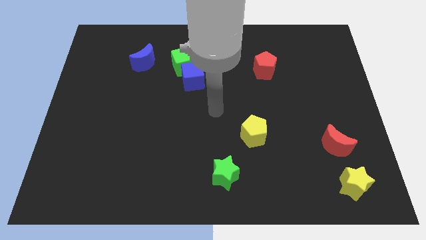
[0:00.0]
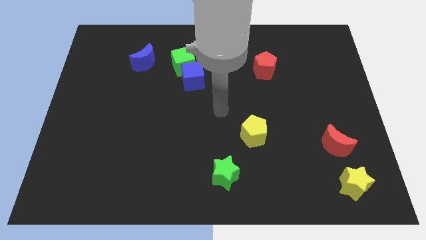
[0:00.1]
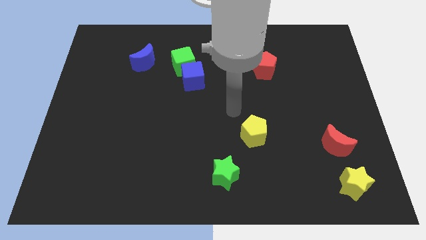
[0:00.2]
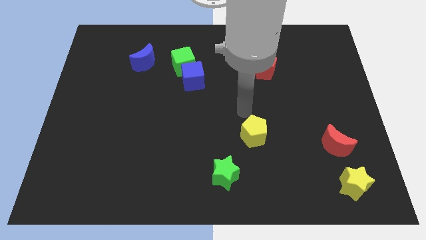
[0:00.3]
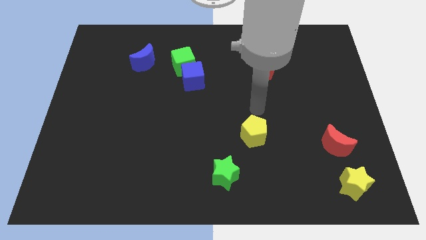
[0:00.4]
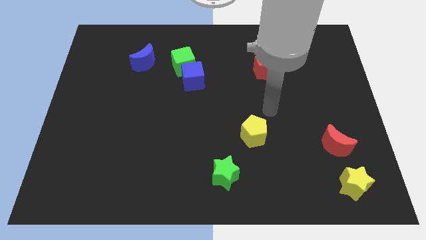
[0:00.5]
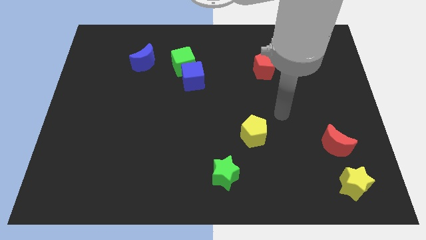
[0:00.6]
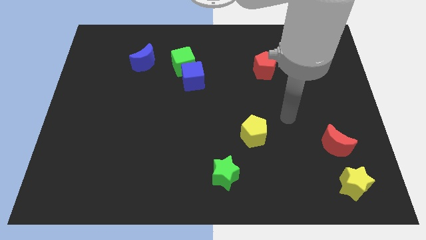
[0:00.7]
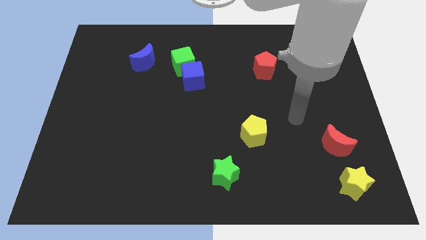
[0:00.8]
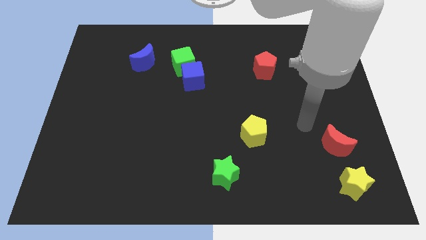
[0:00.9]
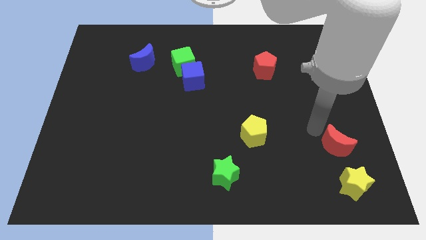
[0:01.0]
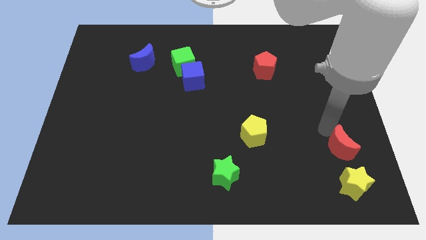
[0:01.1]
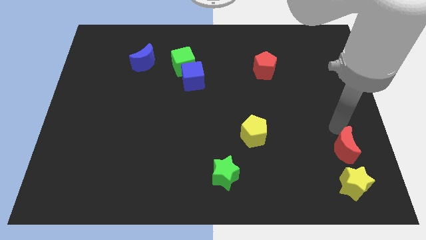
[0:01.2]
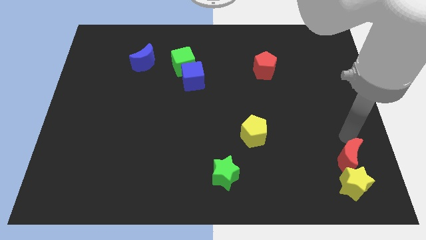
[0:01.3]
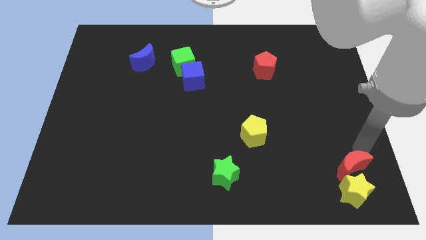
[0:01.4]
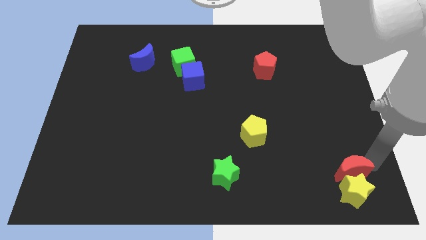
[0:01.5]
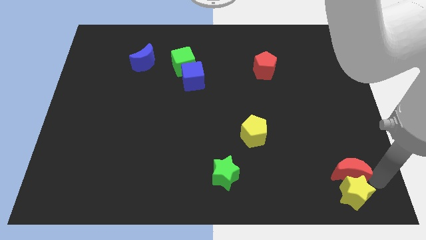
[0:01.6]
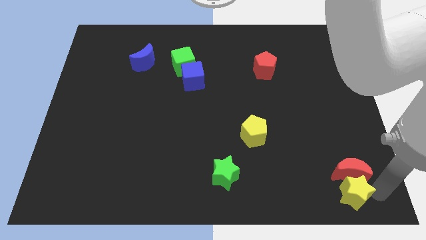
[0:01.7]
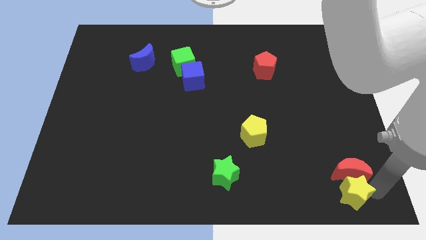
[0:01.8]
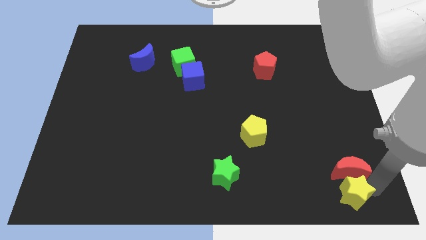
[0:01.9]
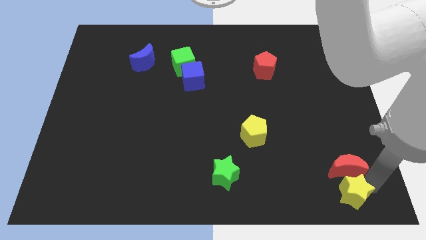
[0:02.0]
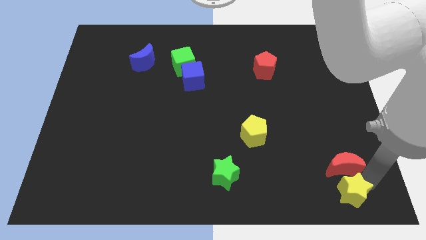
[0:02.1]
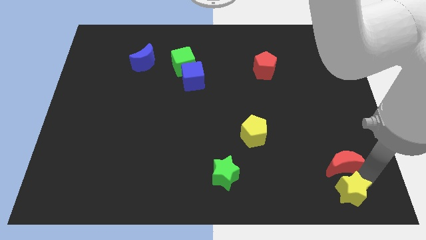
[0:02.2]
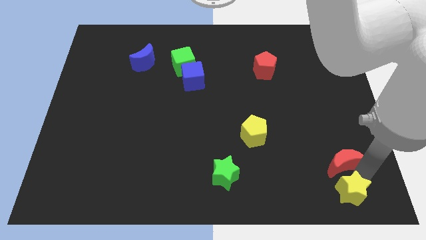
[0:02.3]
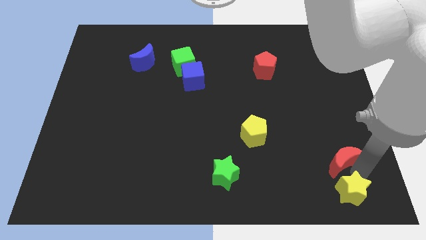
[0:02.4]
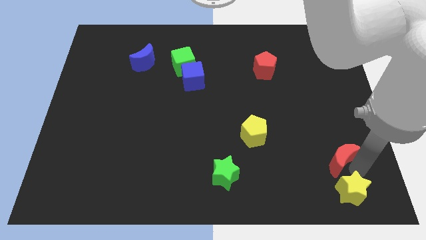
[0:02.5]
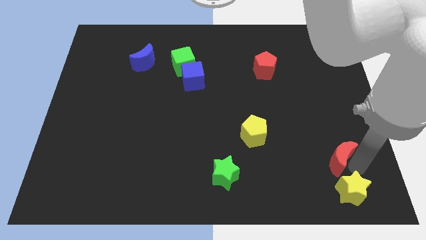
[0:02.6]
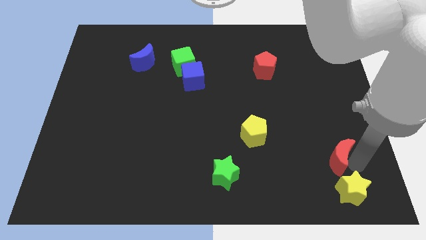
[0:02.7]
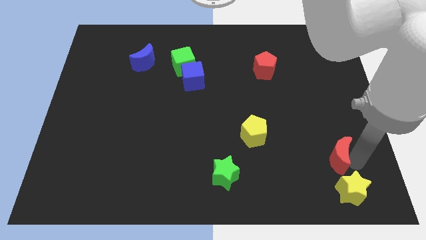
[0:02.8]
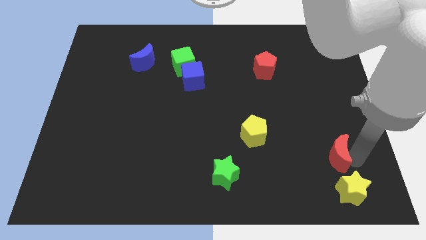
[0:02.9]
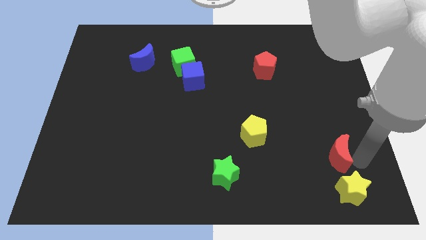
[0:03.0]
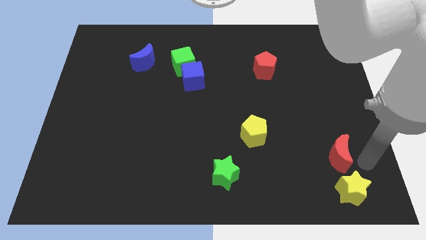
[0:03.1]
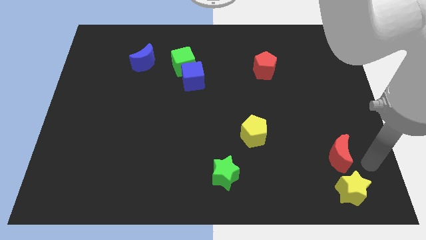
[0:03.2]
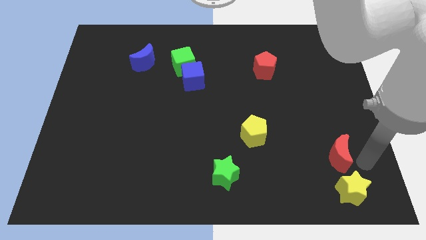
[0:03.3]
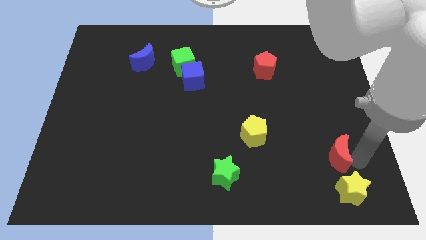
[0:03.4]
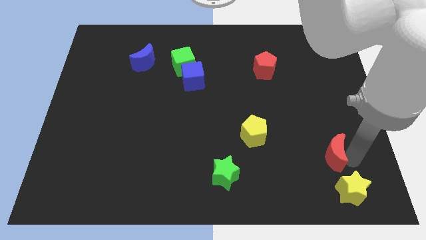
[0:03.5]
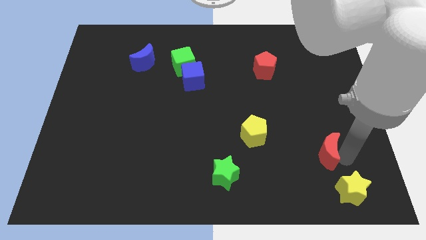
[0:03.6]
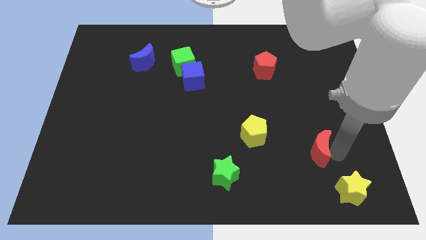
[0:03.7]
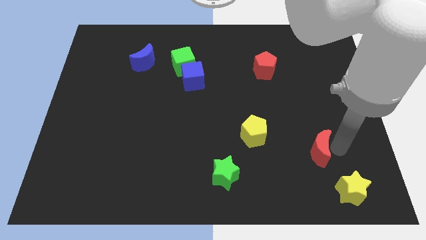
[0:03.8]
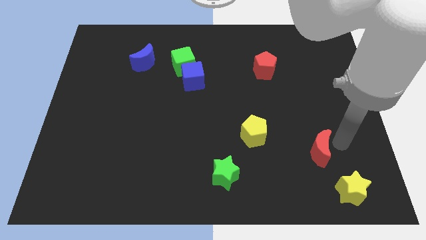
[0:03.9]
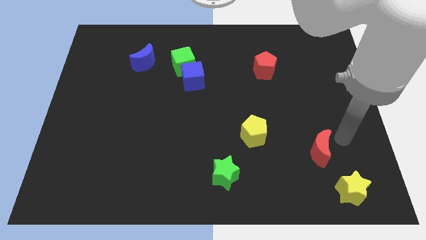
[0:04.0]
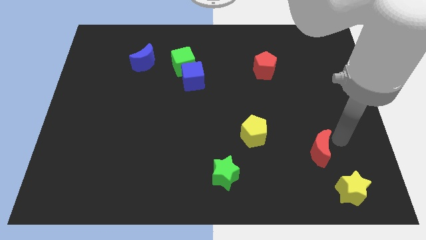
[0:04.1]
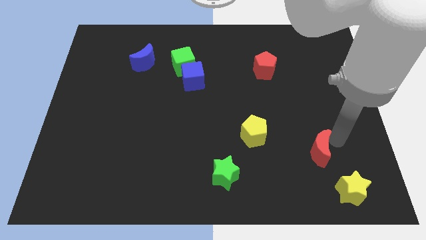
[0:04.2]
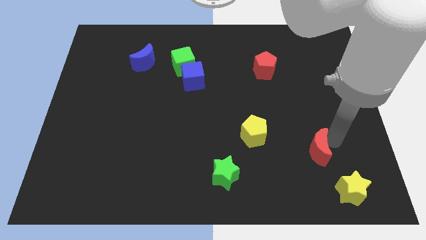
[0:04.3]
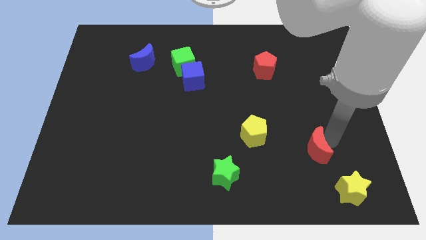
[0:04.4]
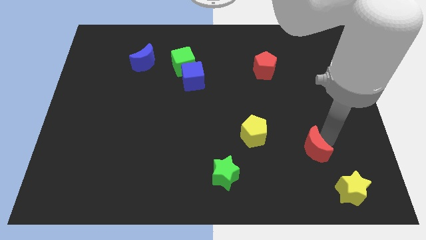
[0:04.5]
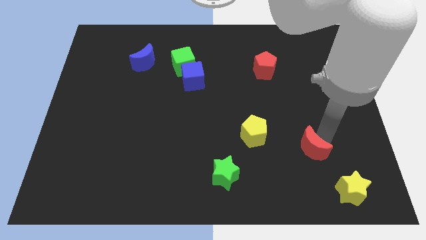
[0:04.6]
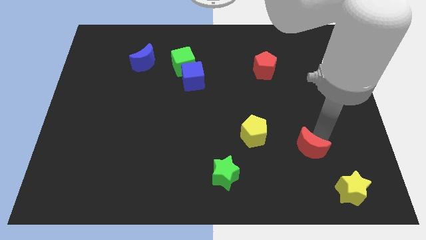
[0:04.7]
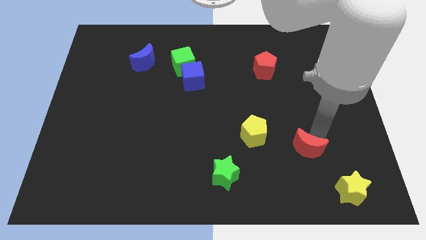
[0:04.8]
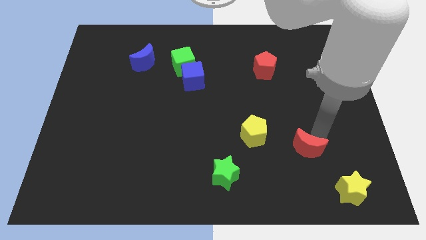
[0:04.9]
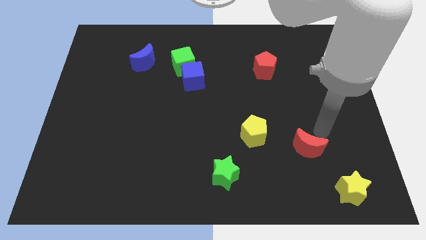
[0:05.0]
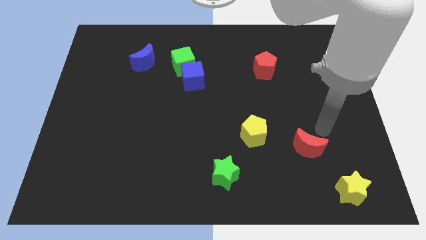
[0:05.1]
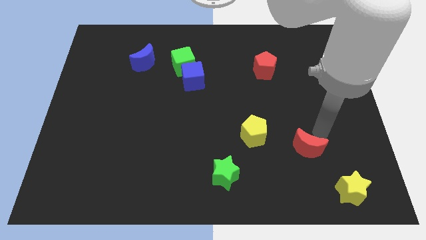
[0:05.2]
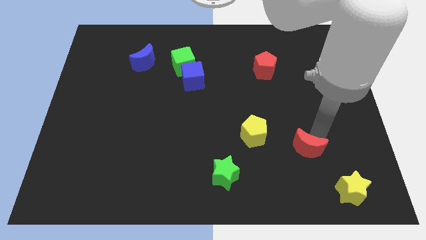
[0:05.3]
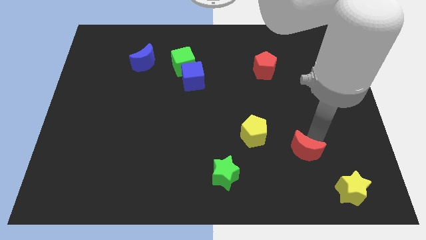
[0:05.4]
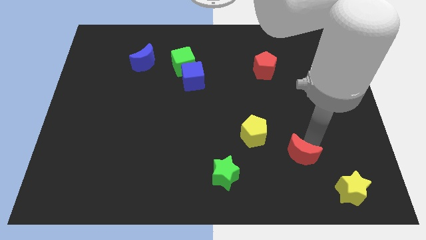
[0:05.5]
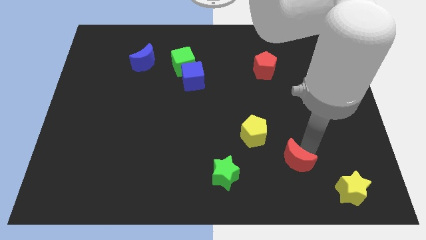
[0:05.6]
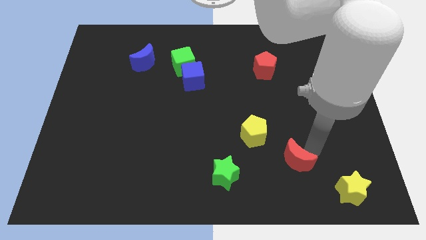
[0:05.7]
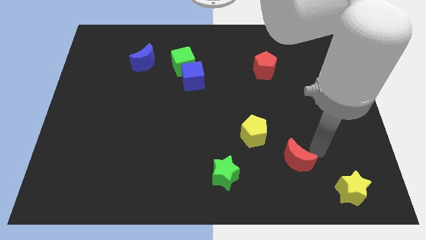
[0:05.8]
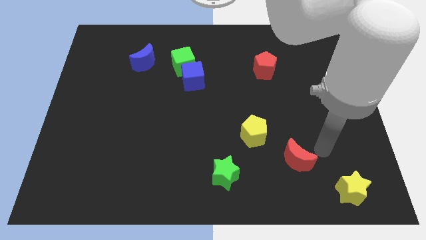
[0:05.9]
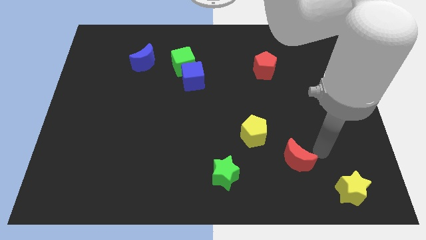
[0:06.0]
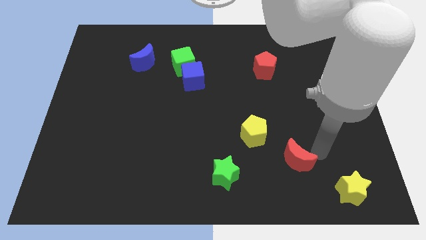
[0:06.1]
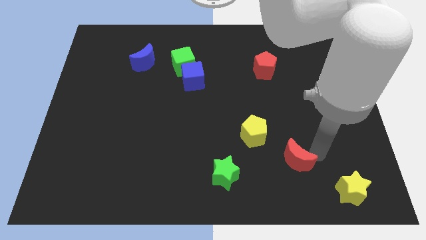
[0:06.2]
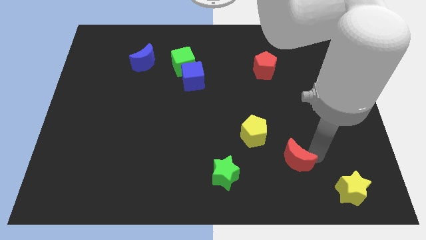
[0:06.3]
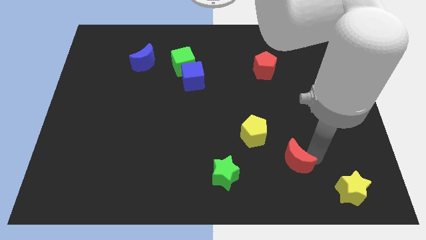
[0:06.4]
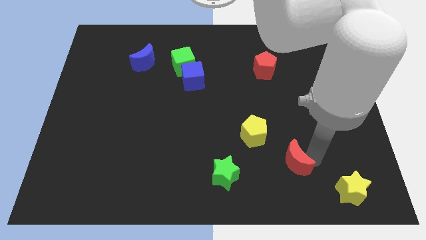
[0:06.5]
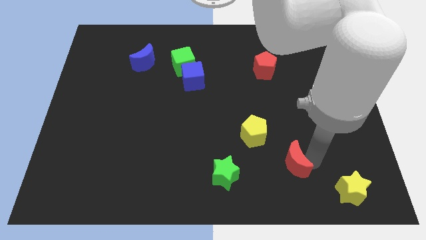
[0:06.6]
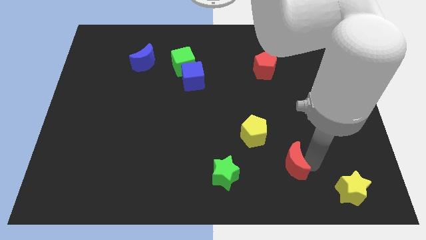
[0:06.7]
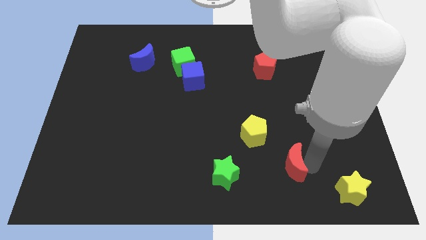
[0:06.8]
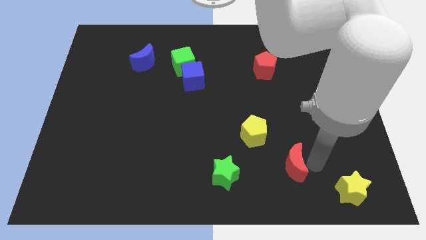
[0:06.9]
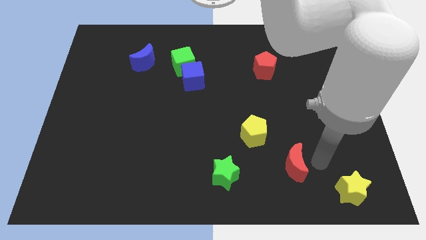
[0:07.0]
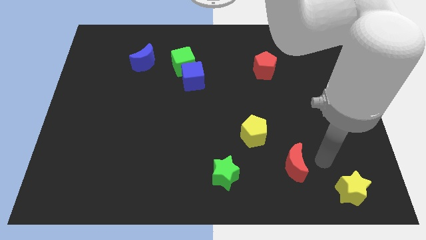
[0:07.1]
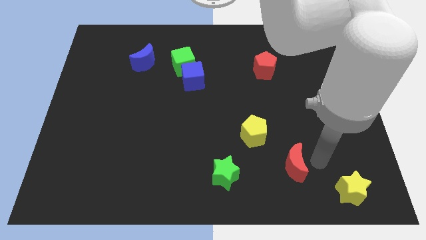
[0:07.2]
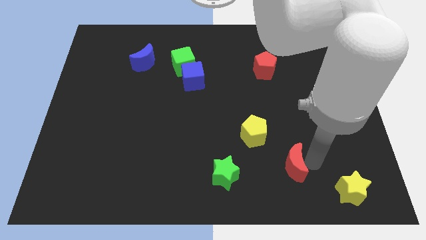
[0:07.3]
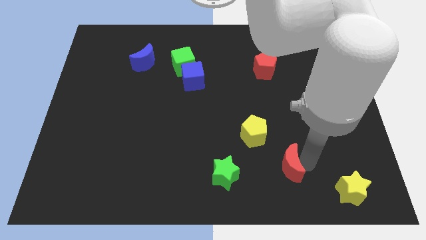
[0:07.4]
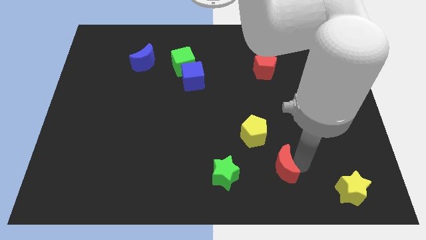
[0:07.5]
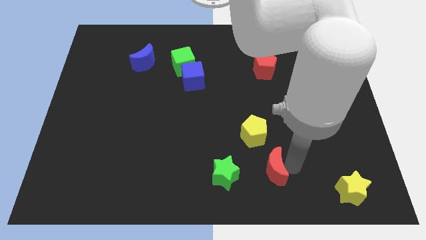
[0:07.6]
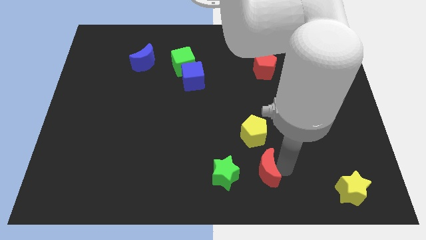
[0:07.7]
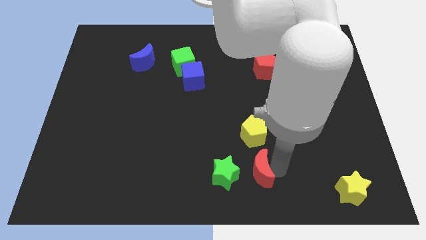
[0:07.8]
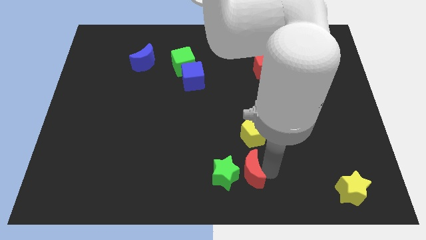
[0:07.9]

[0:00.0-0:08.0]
push the red moon towards the green star
